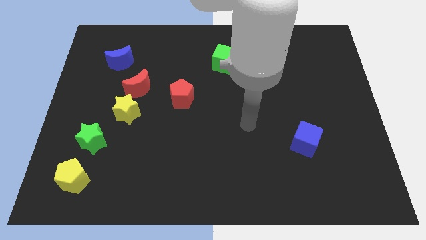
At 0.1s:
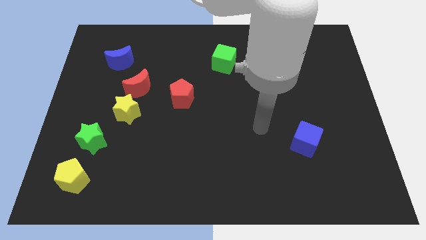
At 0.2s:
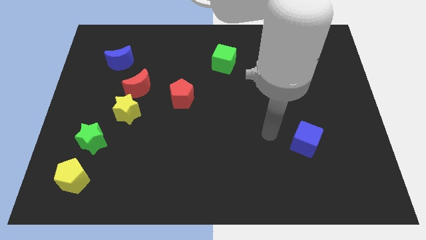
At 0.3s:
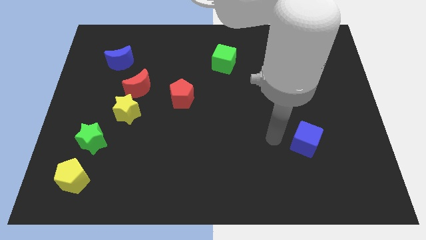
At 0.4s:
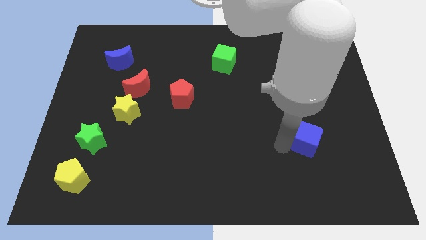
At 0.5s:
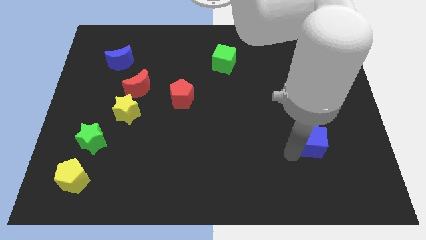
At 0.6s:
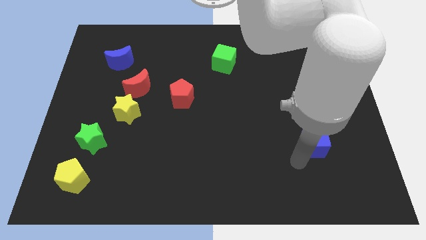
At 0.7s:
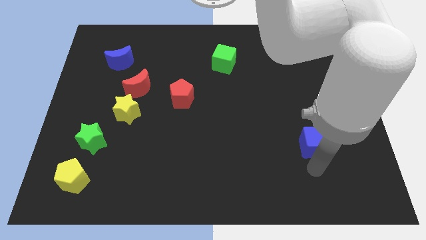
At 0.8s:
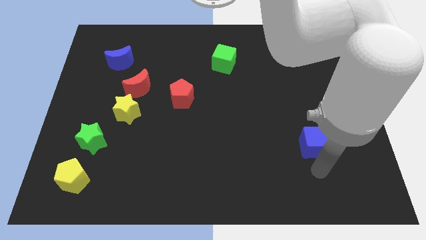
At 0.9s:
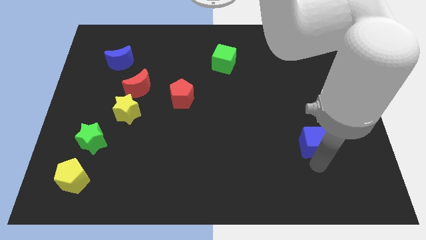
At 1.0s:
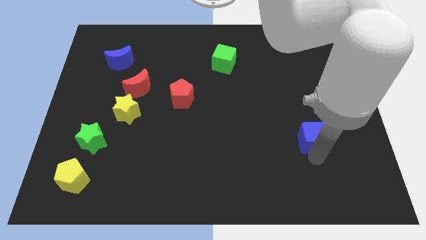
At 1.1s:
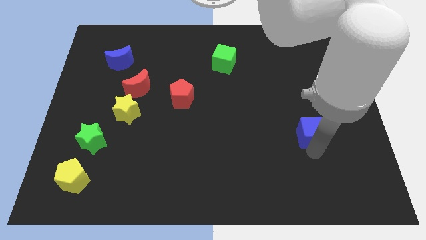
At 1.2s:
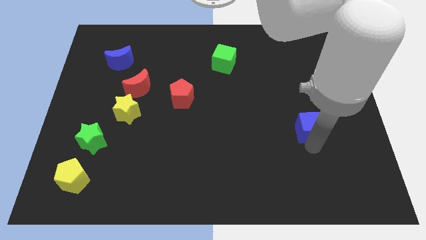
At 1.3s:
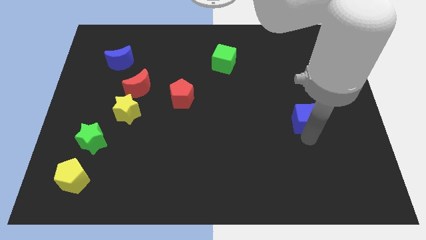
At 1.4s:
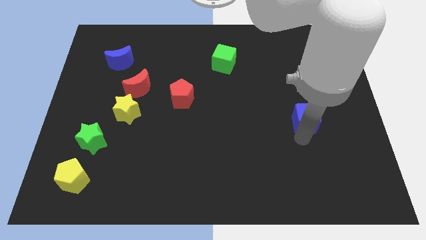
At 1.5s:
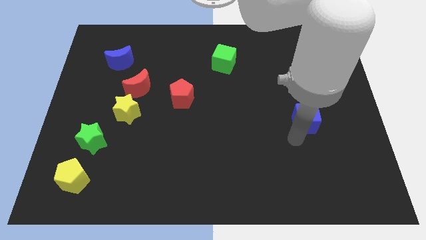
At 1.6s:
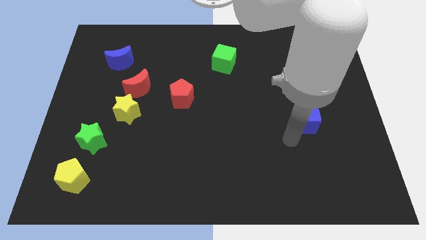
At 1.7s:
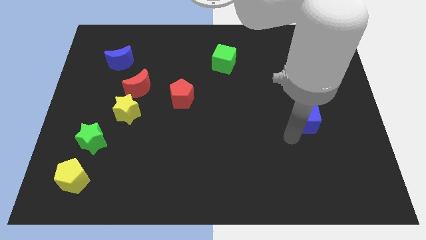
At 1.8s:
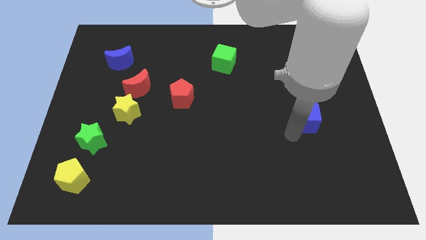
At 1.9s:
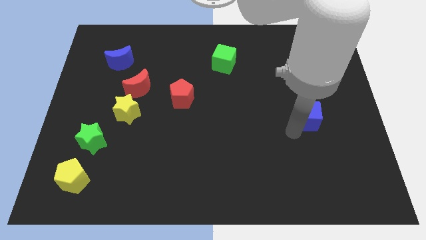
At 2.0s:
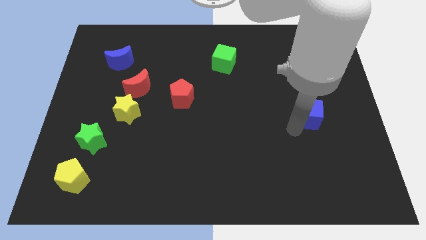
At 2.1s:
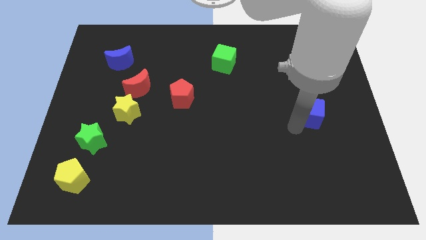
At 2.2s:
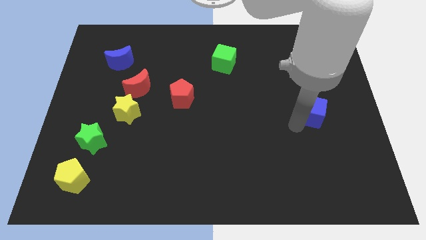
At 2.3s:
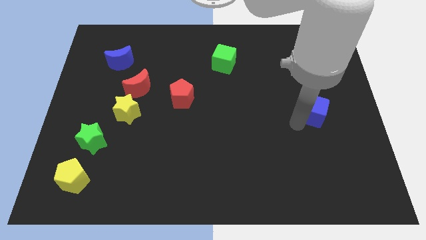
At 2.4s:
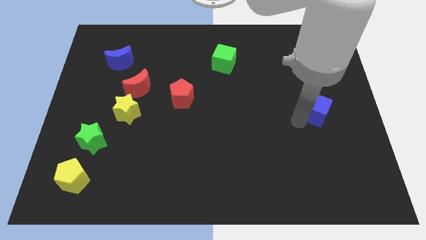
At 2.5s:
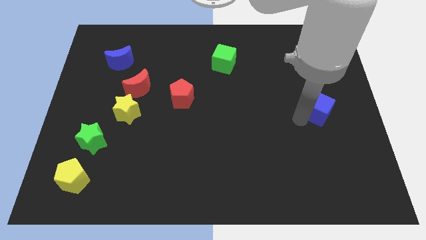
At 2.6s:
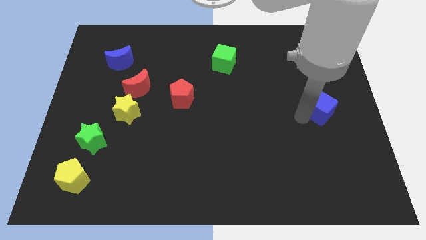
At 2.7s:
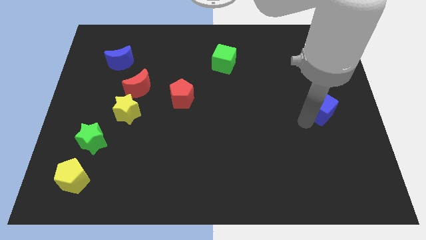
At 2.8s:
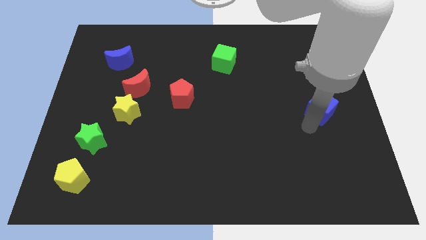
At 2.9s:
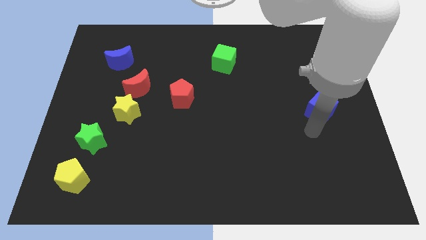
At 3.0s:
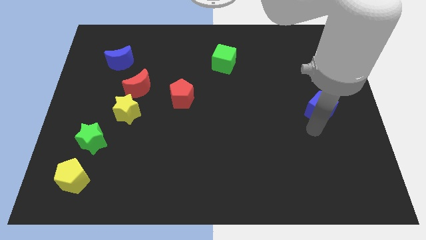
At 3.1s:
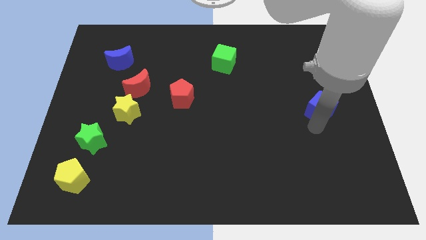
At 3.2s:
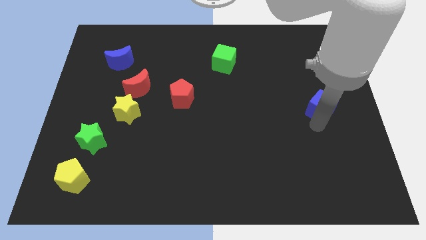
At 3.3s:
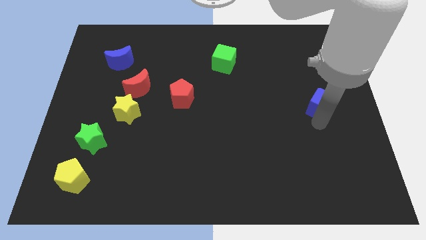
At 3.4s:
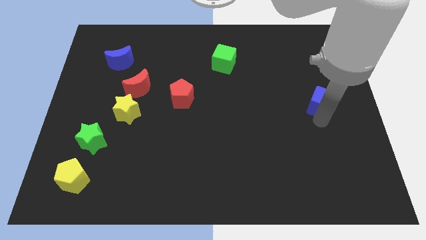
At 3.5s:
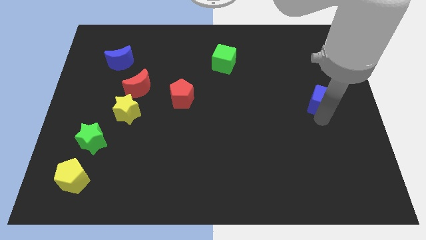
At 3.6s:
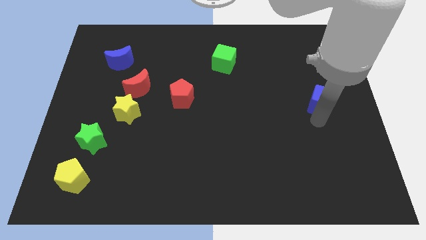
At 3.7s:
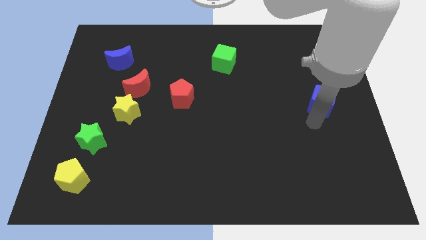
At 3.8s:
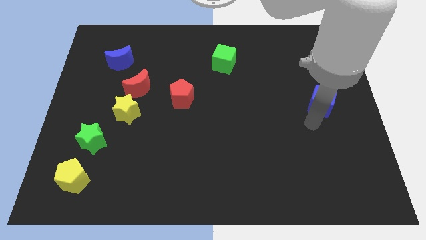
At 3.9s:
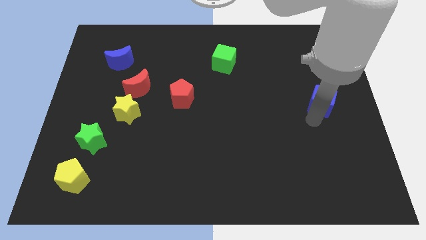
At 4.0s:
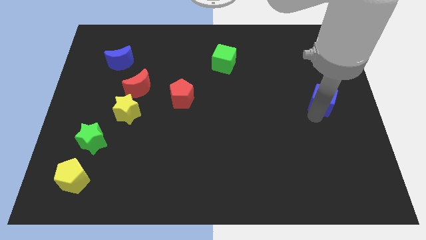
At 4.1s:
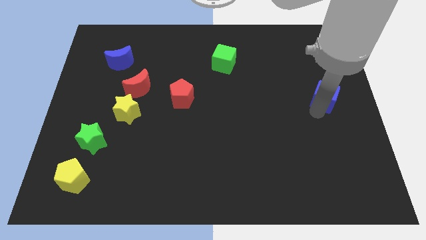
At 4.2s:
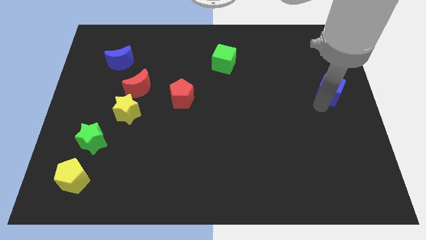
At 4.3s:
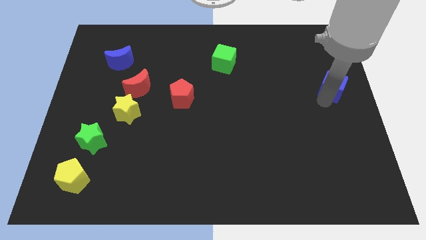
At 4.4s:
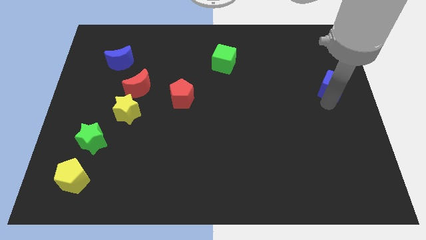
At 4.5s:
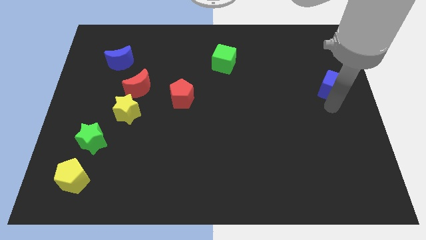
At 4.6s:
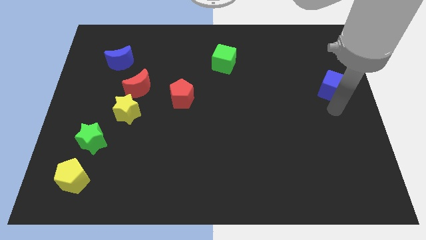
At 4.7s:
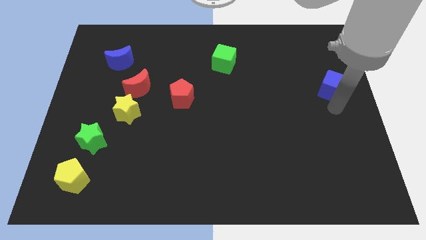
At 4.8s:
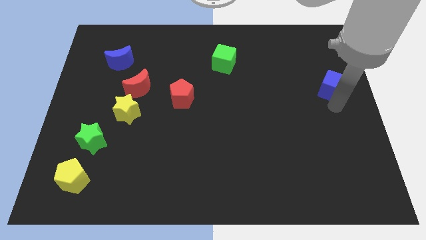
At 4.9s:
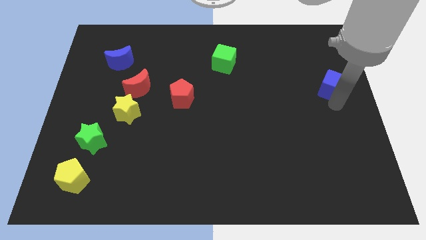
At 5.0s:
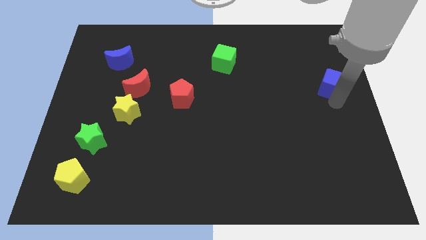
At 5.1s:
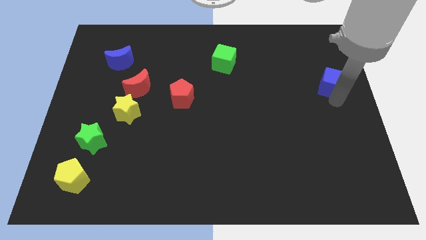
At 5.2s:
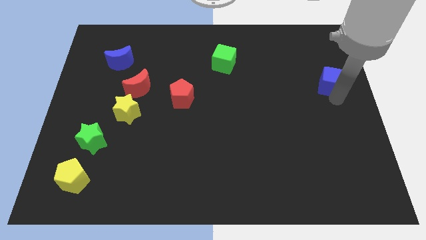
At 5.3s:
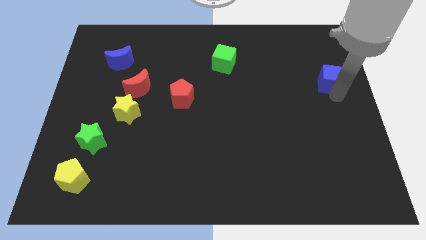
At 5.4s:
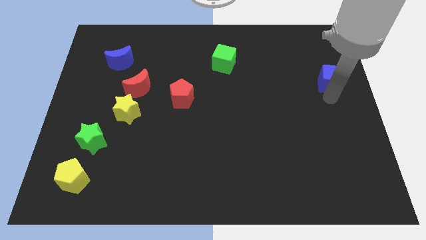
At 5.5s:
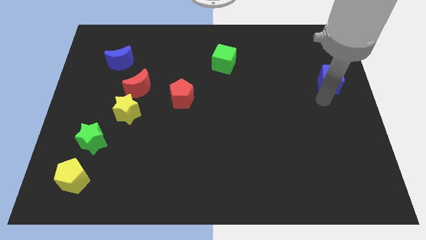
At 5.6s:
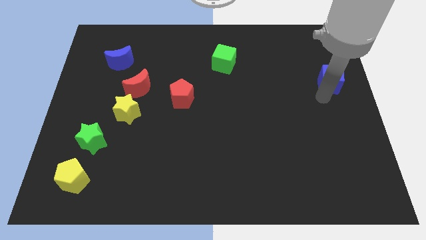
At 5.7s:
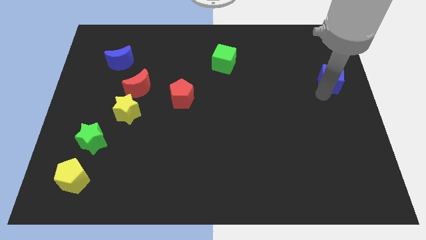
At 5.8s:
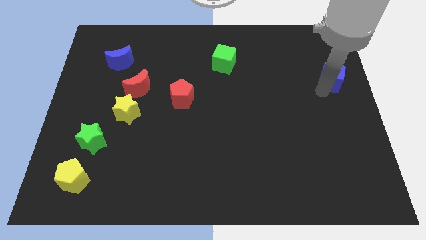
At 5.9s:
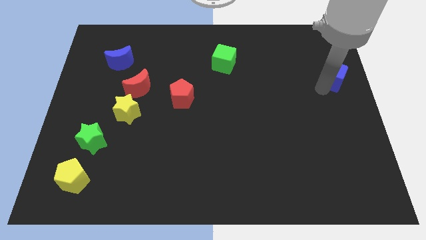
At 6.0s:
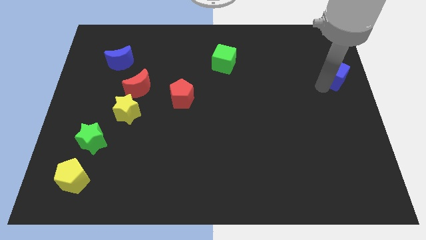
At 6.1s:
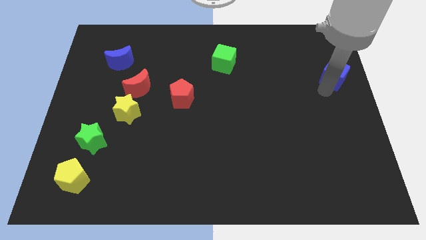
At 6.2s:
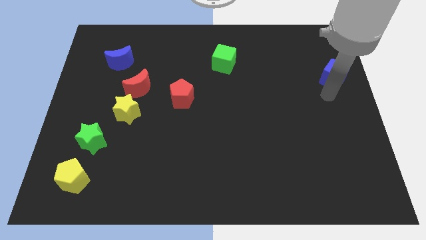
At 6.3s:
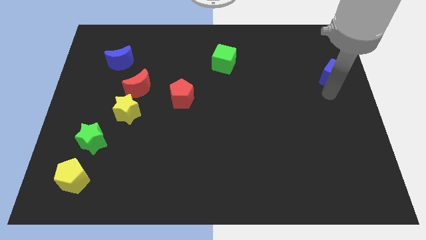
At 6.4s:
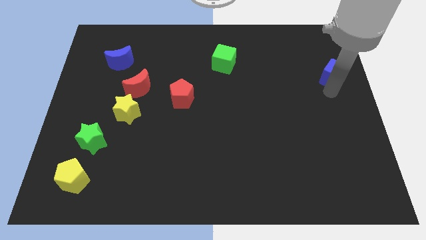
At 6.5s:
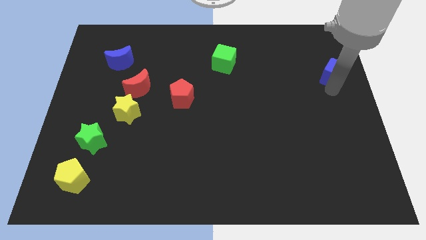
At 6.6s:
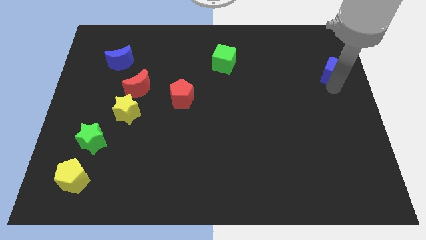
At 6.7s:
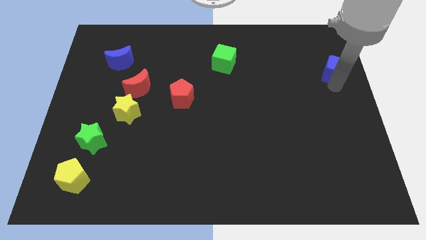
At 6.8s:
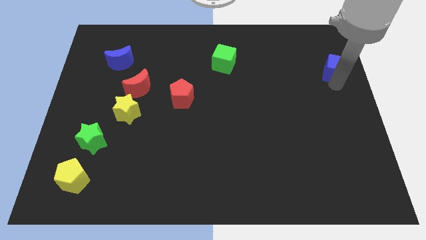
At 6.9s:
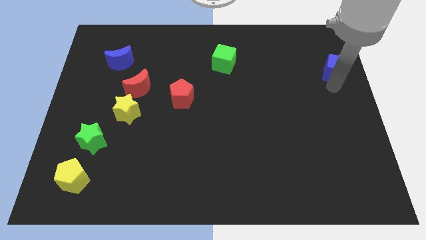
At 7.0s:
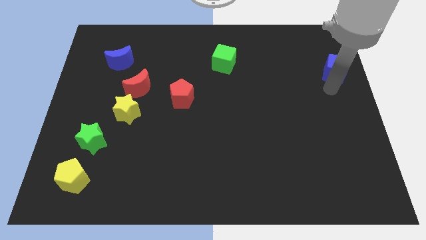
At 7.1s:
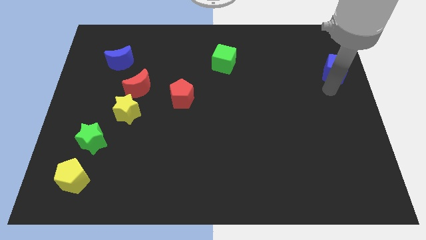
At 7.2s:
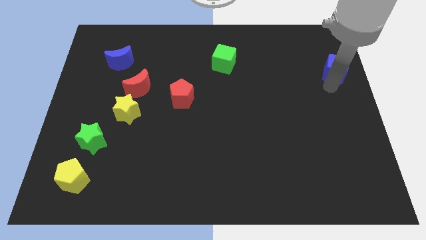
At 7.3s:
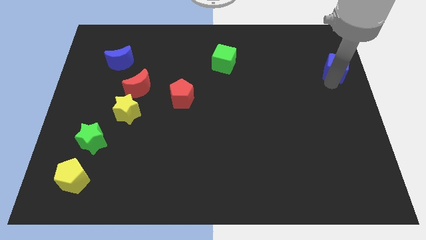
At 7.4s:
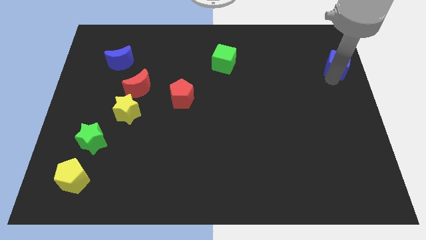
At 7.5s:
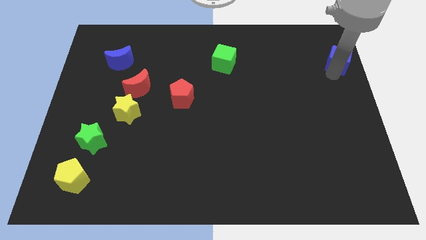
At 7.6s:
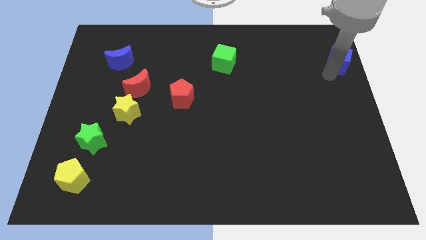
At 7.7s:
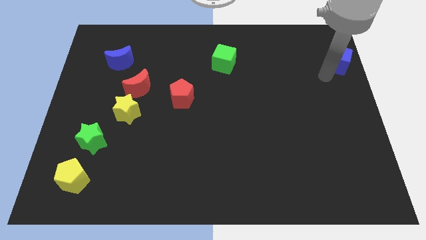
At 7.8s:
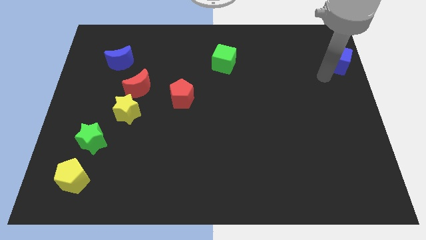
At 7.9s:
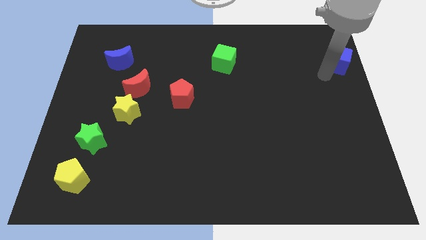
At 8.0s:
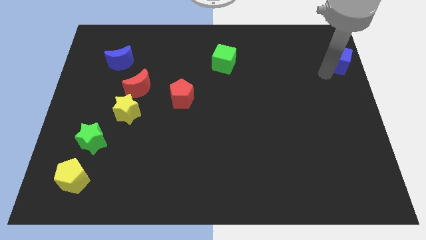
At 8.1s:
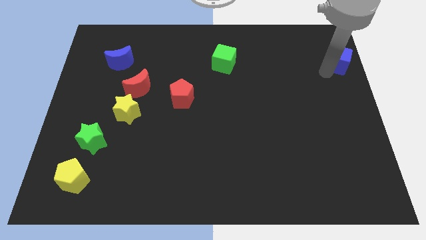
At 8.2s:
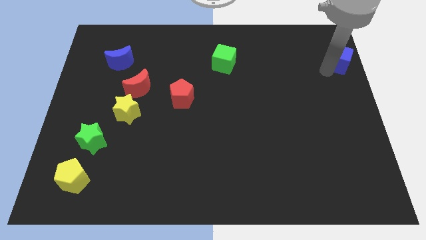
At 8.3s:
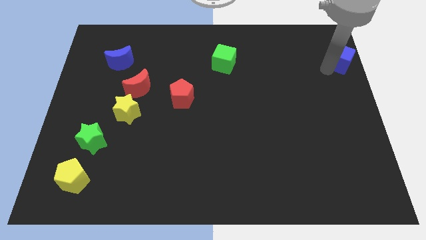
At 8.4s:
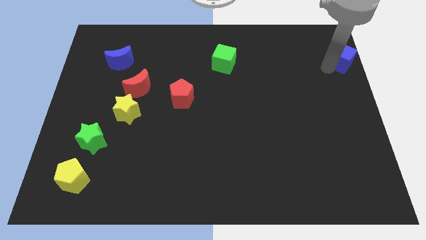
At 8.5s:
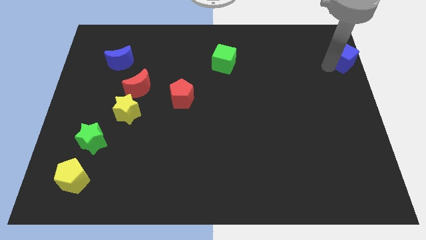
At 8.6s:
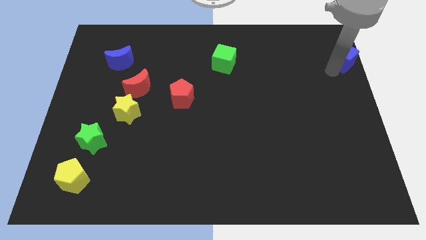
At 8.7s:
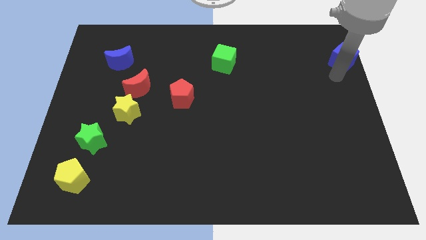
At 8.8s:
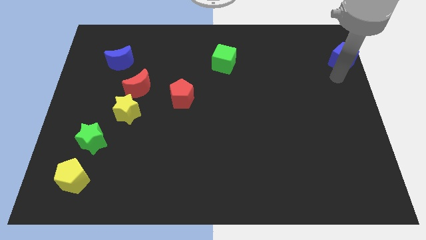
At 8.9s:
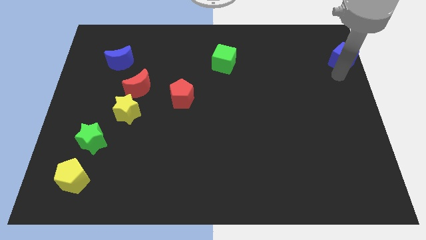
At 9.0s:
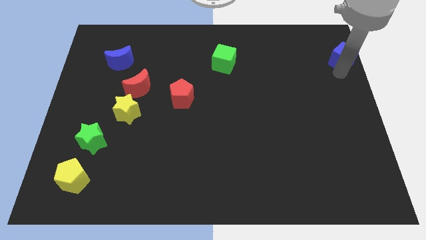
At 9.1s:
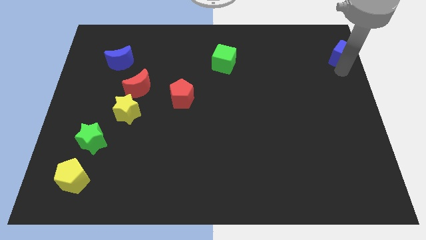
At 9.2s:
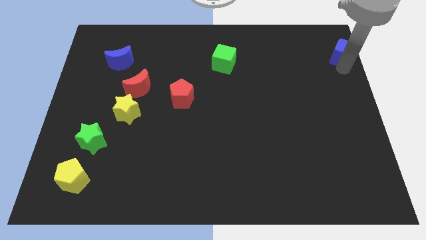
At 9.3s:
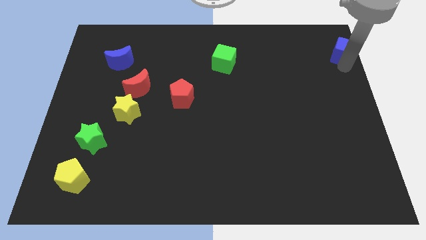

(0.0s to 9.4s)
move the blue cube to the top right corner
